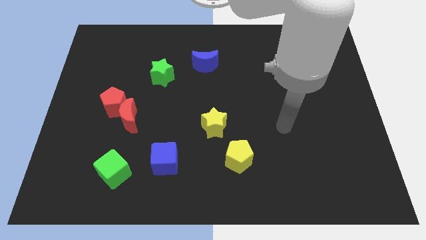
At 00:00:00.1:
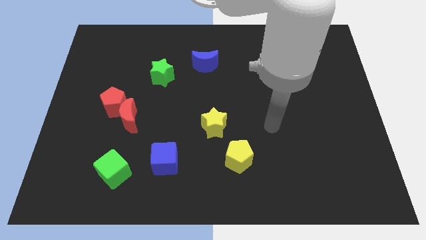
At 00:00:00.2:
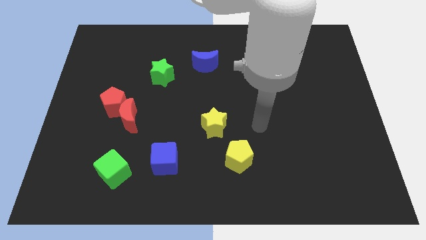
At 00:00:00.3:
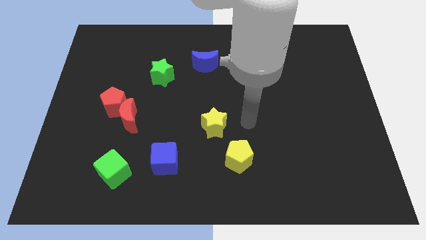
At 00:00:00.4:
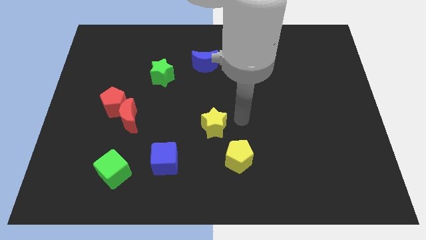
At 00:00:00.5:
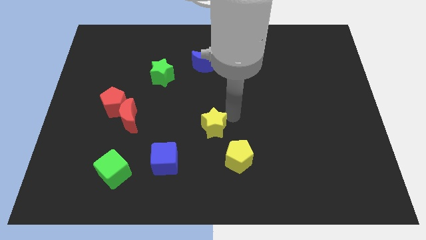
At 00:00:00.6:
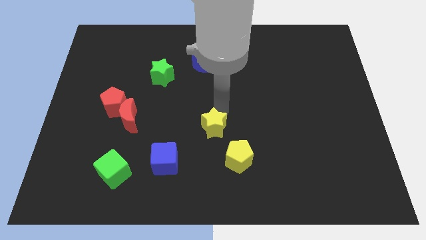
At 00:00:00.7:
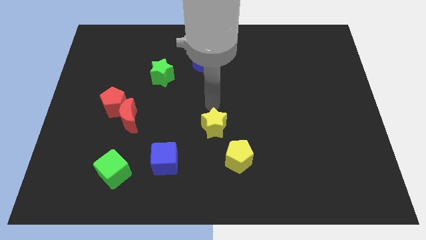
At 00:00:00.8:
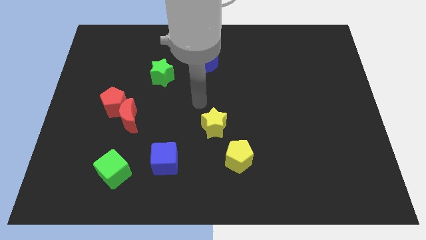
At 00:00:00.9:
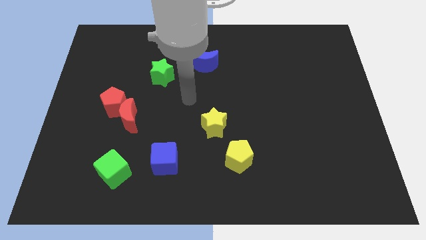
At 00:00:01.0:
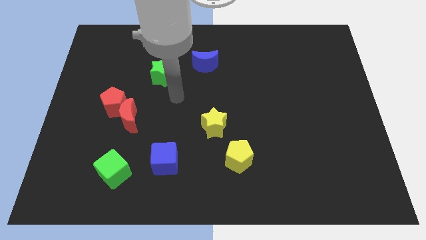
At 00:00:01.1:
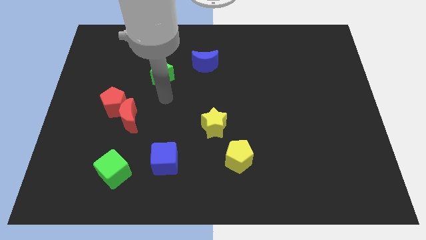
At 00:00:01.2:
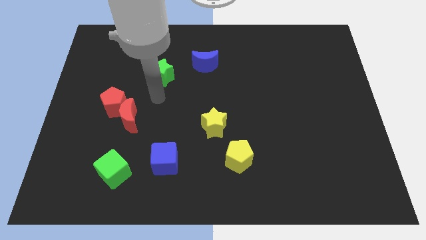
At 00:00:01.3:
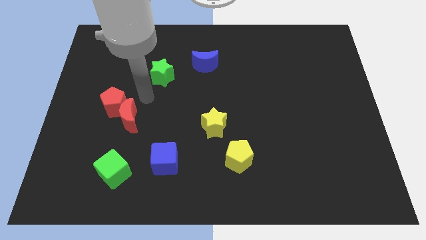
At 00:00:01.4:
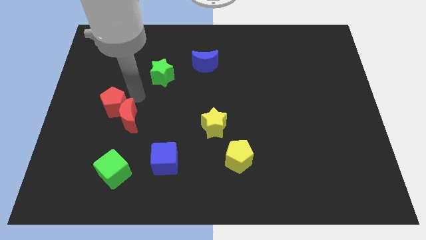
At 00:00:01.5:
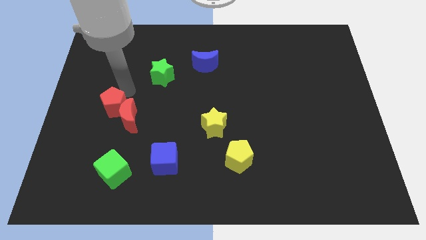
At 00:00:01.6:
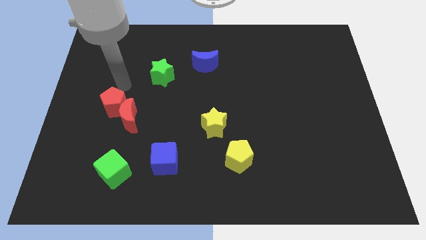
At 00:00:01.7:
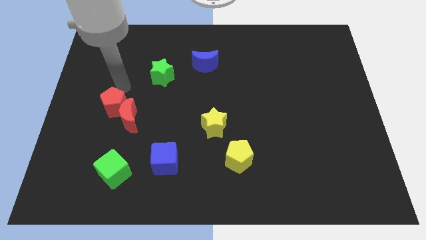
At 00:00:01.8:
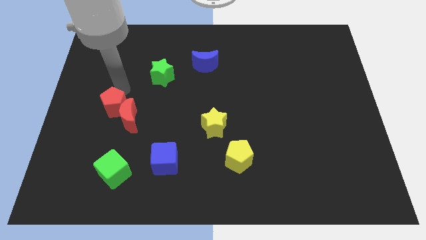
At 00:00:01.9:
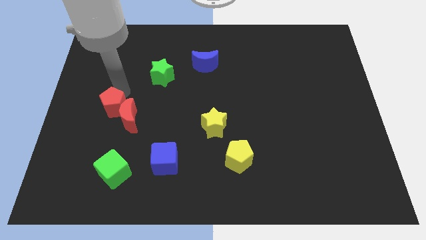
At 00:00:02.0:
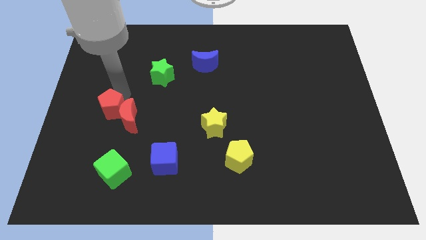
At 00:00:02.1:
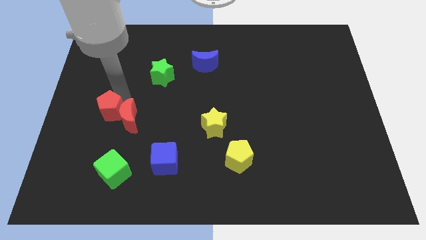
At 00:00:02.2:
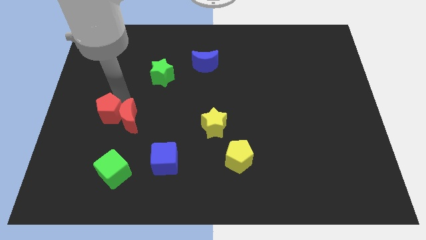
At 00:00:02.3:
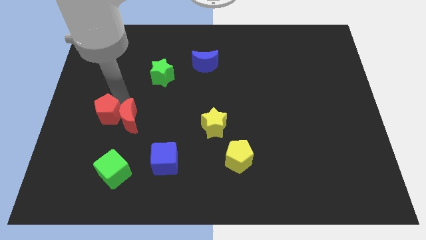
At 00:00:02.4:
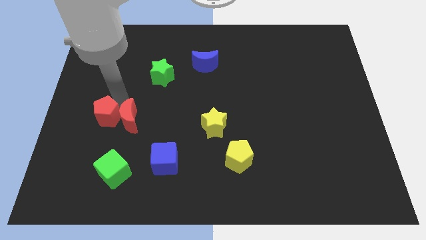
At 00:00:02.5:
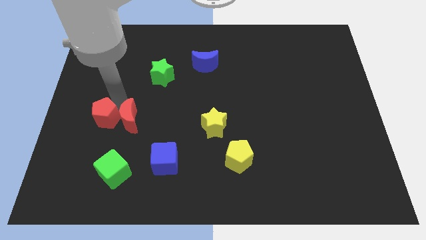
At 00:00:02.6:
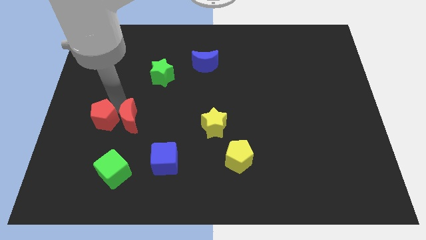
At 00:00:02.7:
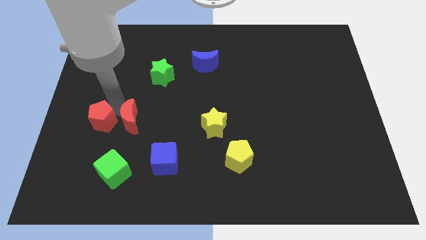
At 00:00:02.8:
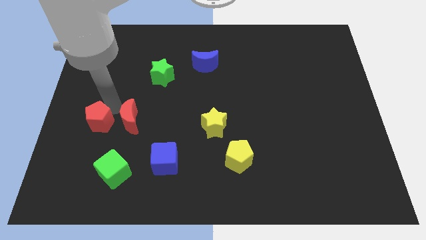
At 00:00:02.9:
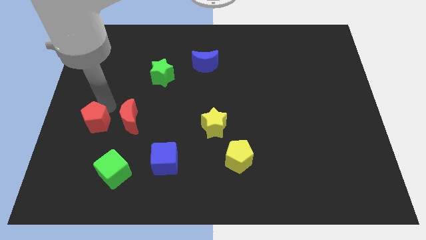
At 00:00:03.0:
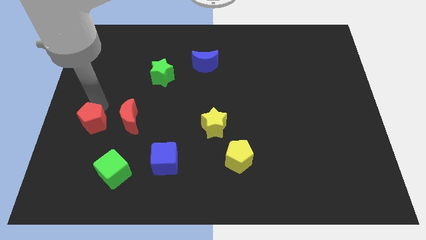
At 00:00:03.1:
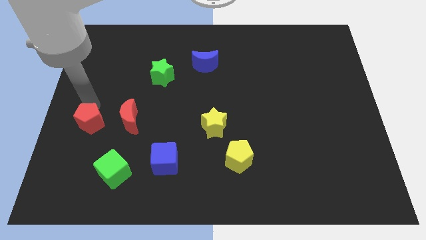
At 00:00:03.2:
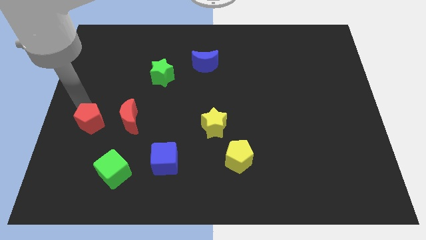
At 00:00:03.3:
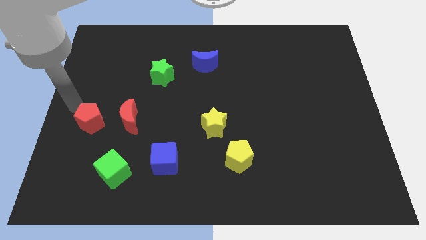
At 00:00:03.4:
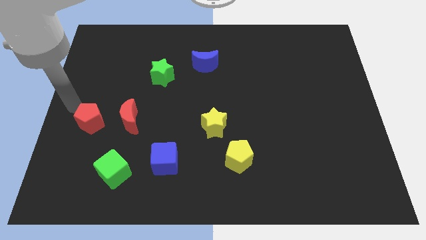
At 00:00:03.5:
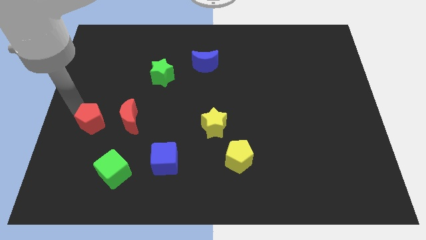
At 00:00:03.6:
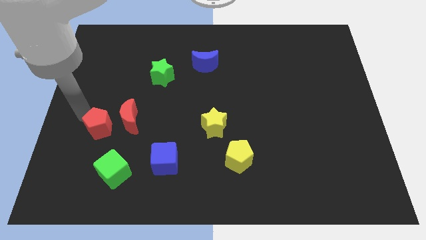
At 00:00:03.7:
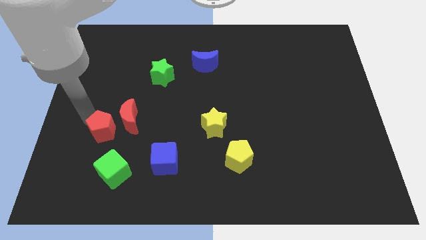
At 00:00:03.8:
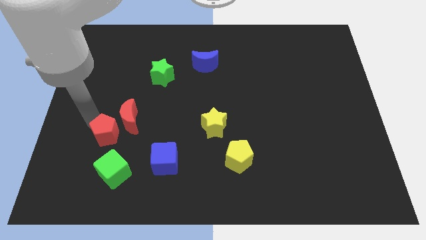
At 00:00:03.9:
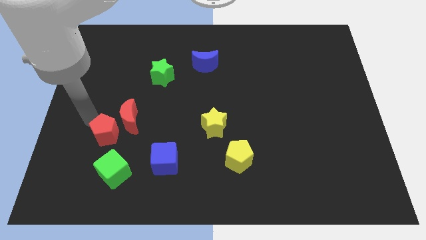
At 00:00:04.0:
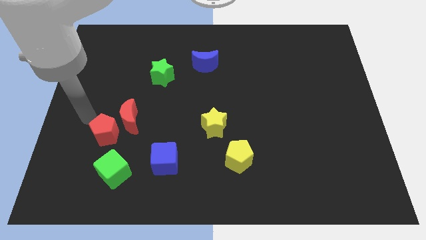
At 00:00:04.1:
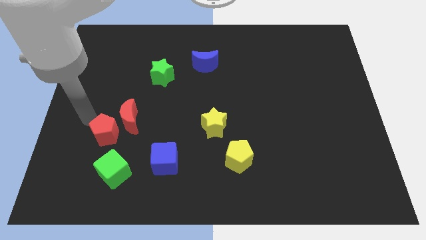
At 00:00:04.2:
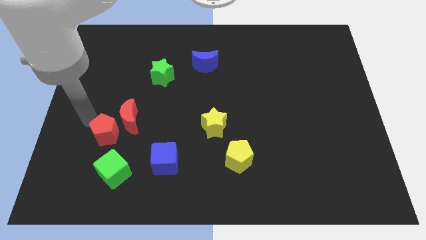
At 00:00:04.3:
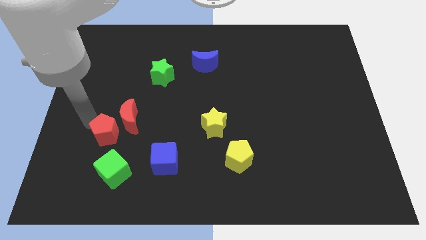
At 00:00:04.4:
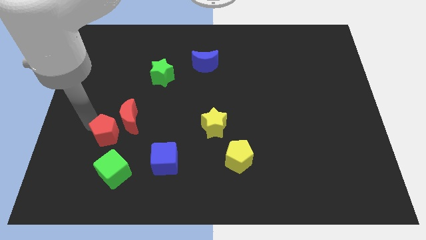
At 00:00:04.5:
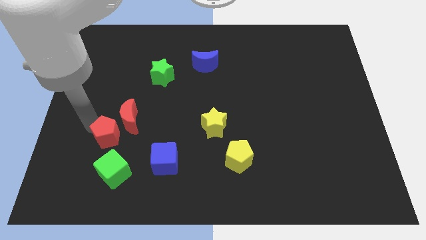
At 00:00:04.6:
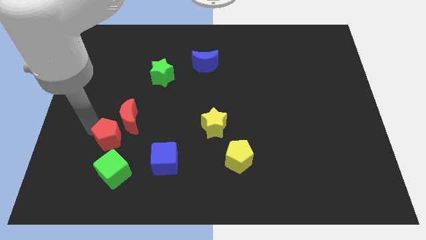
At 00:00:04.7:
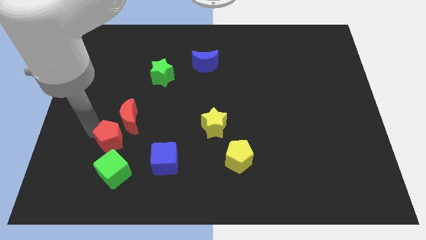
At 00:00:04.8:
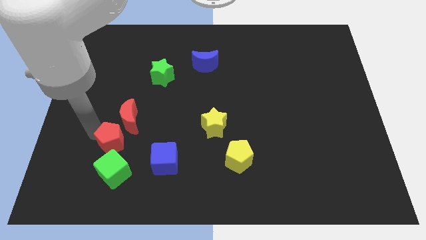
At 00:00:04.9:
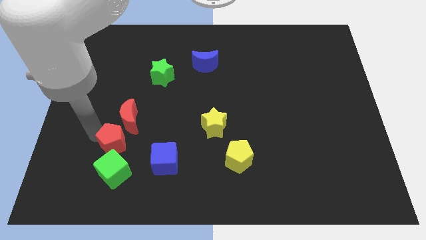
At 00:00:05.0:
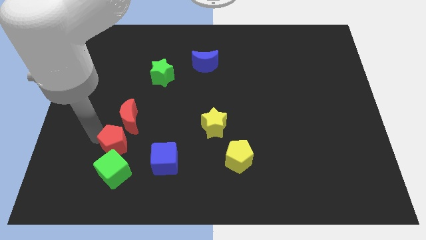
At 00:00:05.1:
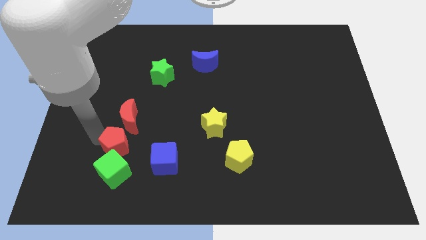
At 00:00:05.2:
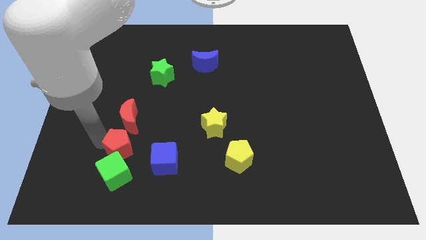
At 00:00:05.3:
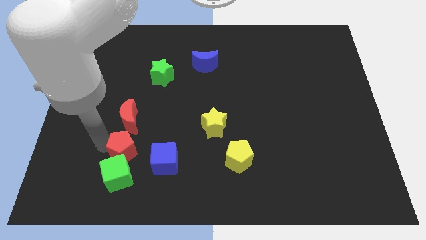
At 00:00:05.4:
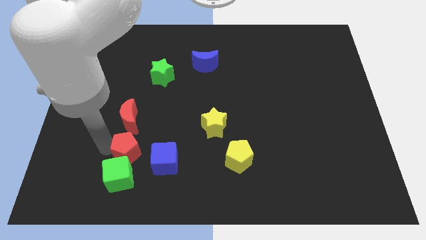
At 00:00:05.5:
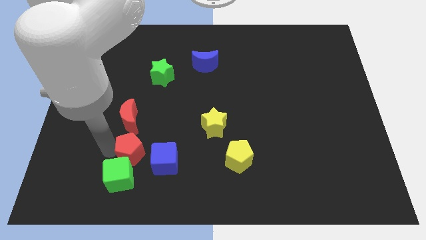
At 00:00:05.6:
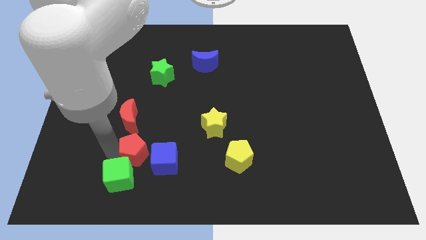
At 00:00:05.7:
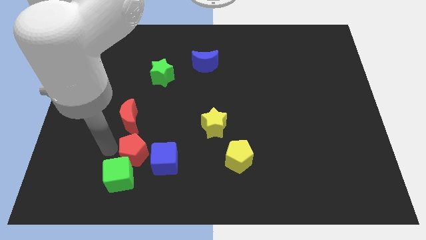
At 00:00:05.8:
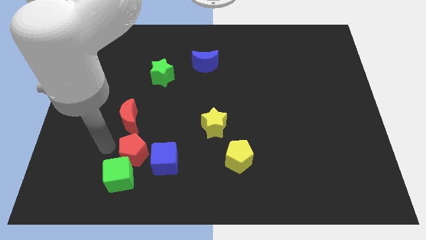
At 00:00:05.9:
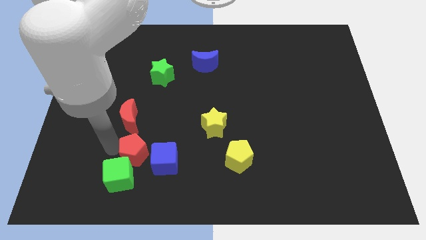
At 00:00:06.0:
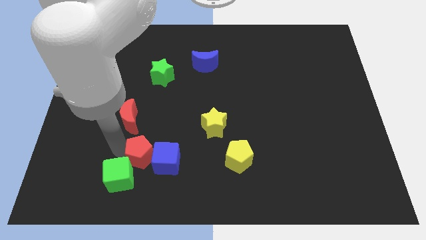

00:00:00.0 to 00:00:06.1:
push the red pentagon to the blue cube

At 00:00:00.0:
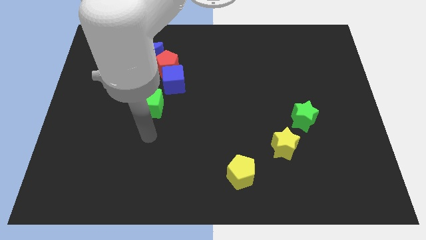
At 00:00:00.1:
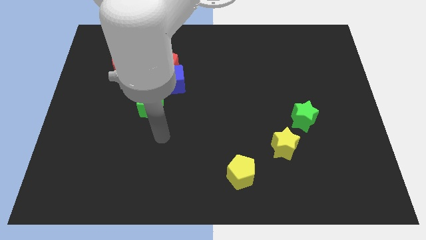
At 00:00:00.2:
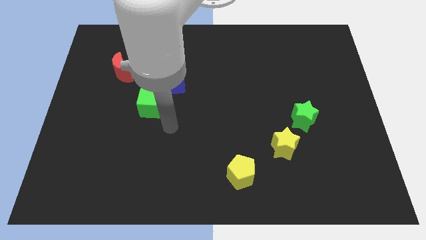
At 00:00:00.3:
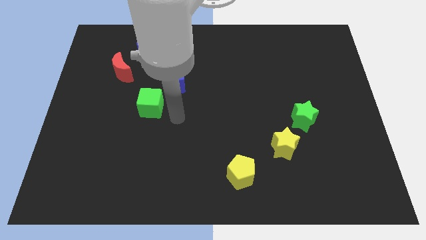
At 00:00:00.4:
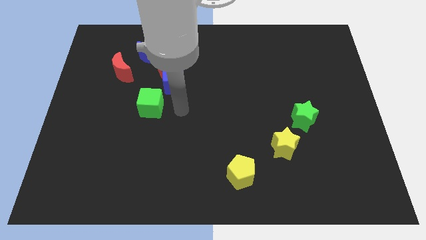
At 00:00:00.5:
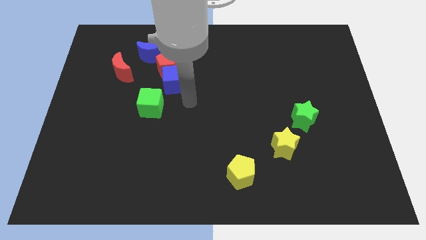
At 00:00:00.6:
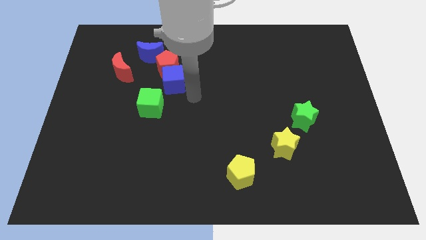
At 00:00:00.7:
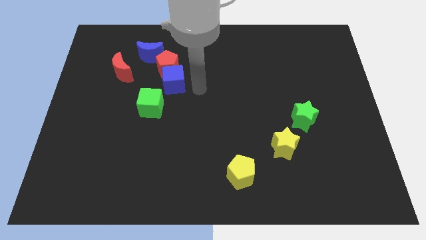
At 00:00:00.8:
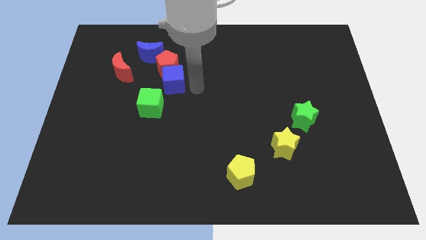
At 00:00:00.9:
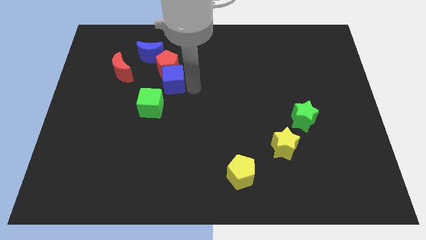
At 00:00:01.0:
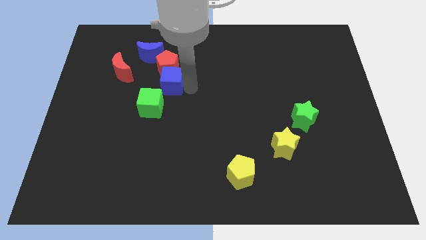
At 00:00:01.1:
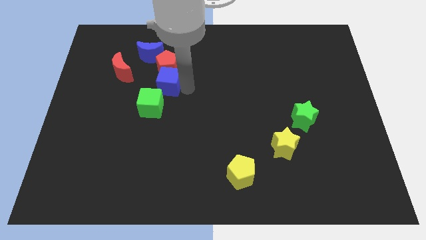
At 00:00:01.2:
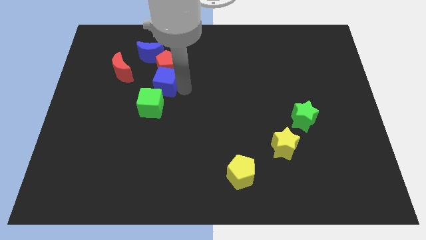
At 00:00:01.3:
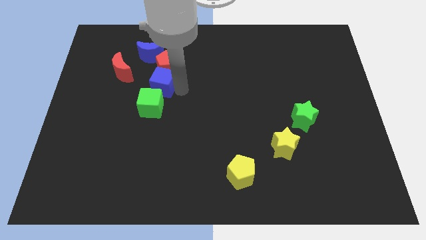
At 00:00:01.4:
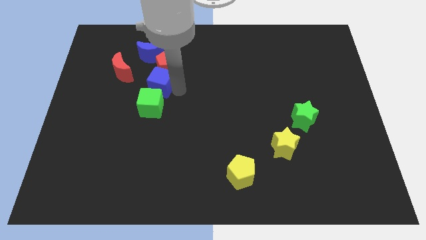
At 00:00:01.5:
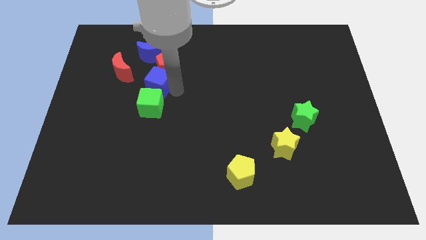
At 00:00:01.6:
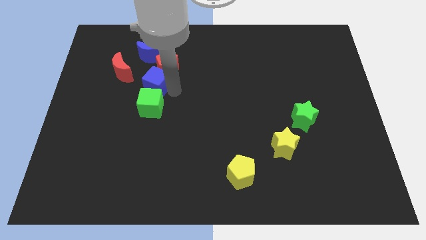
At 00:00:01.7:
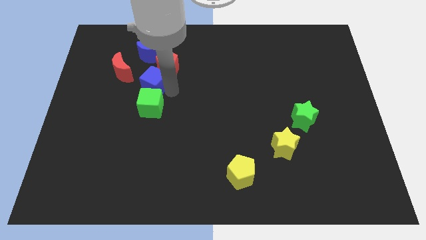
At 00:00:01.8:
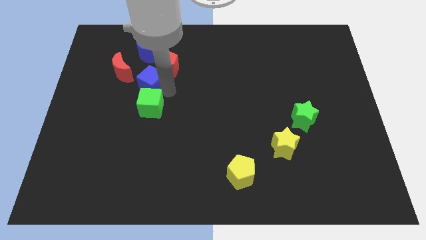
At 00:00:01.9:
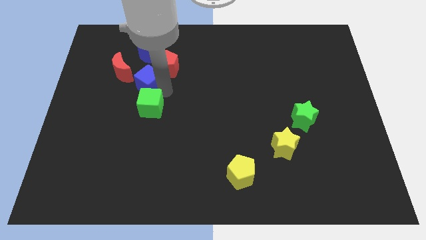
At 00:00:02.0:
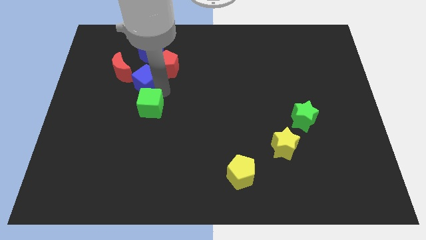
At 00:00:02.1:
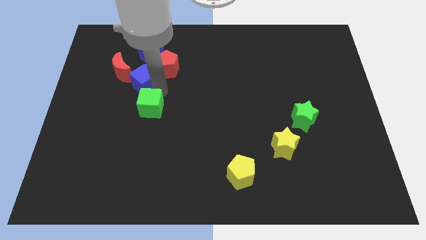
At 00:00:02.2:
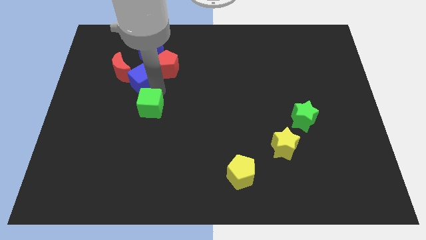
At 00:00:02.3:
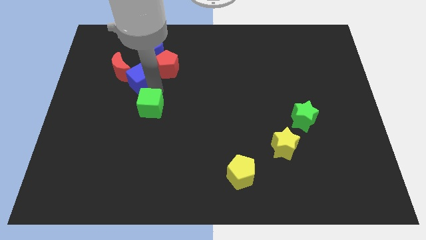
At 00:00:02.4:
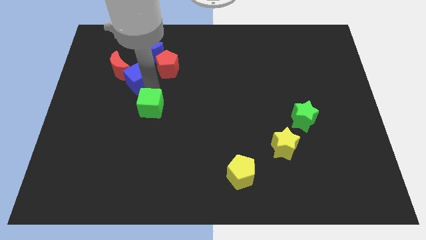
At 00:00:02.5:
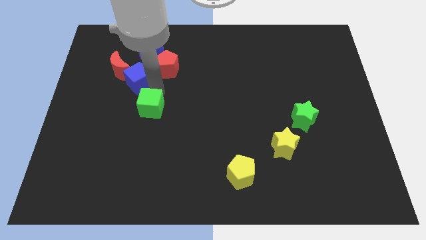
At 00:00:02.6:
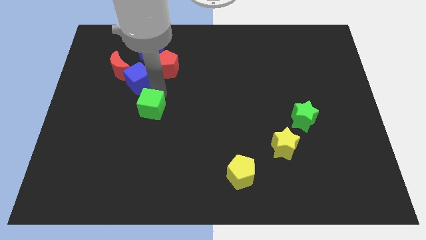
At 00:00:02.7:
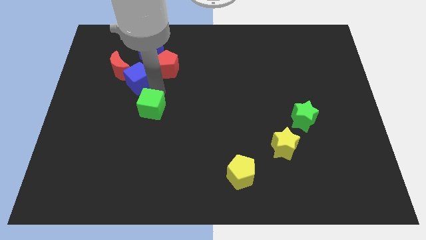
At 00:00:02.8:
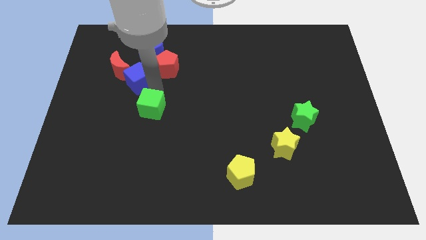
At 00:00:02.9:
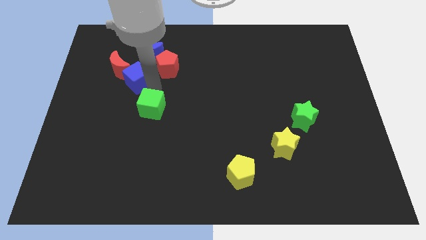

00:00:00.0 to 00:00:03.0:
put the blue cube next to the red moon
